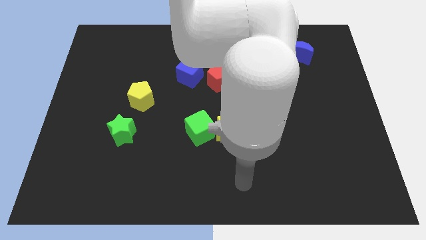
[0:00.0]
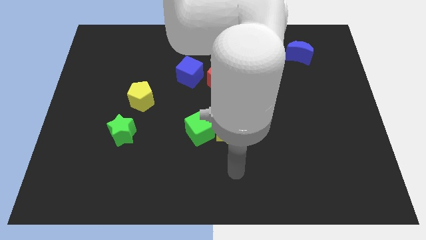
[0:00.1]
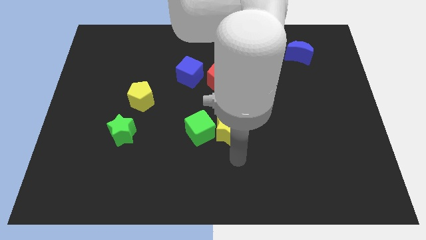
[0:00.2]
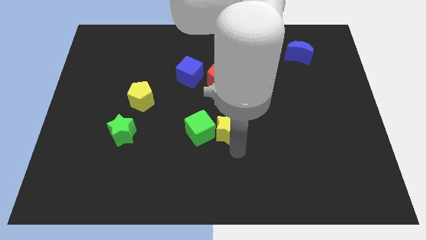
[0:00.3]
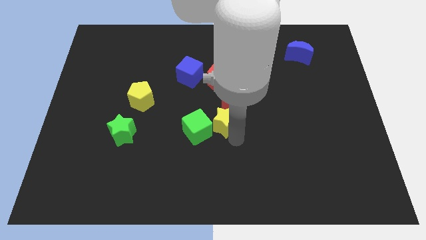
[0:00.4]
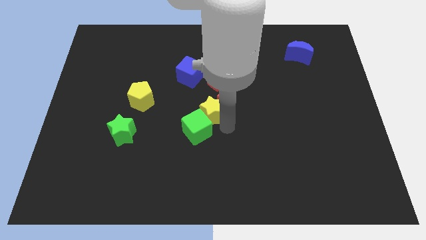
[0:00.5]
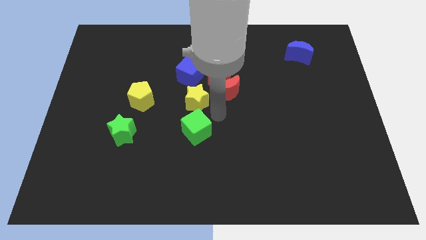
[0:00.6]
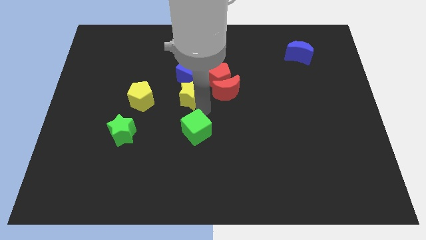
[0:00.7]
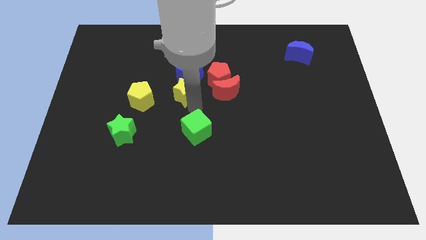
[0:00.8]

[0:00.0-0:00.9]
pull the green cube apart from the yellow star

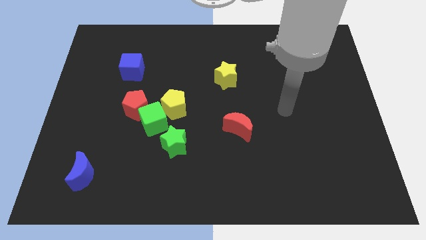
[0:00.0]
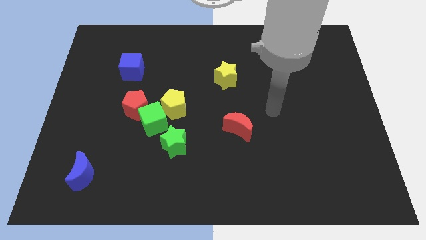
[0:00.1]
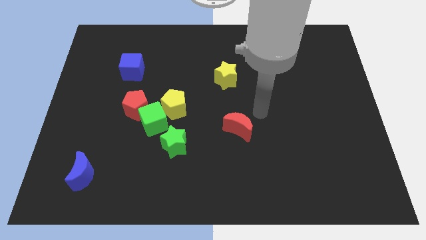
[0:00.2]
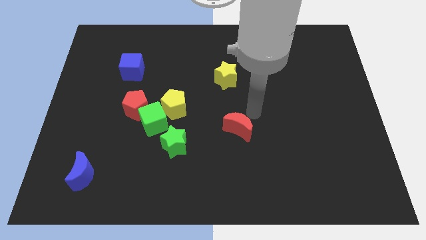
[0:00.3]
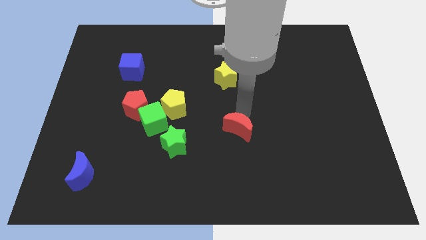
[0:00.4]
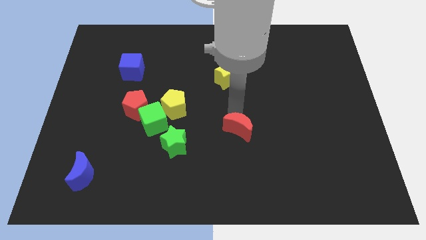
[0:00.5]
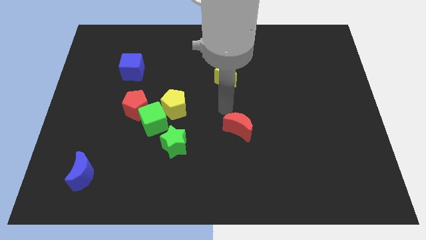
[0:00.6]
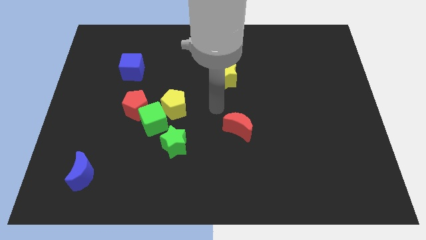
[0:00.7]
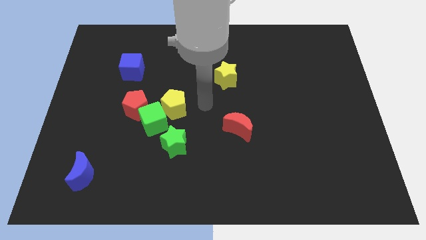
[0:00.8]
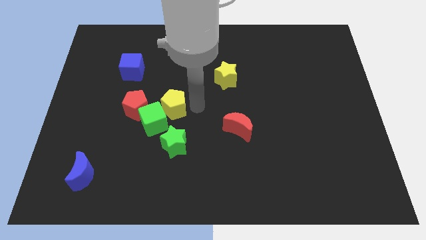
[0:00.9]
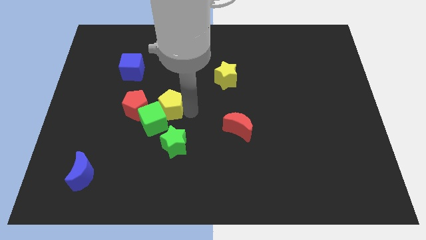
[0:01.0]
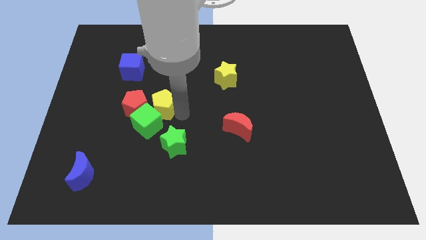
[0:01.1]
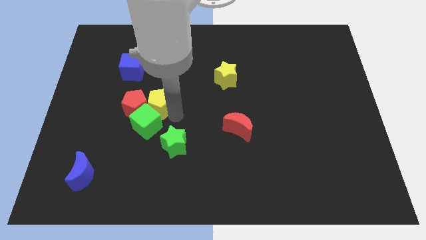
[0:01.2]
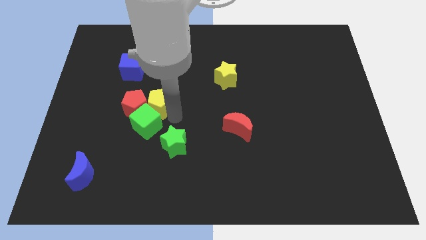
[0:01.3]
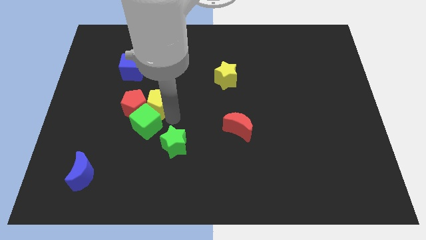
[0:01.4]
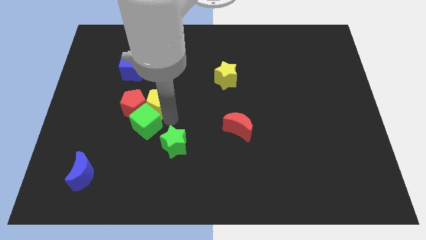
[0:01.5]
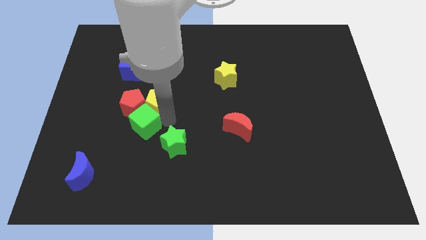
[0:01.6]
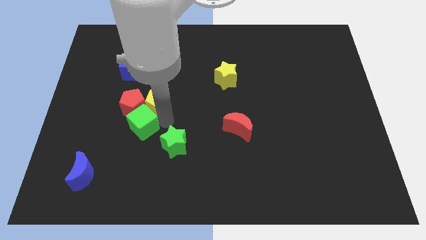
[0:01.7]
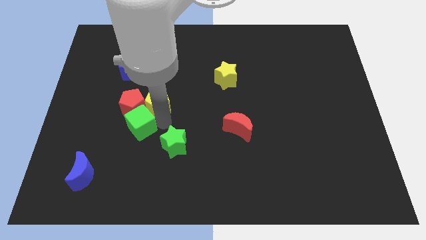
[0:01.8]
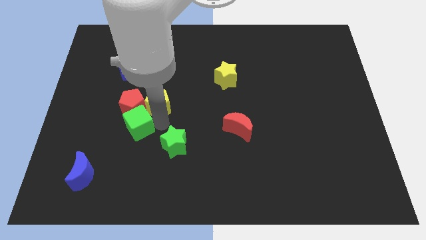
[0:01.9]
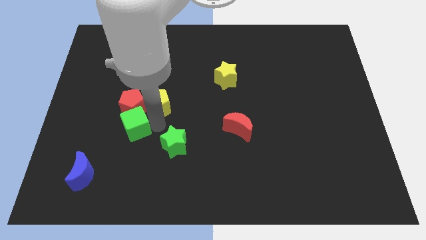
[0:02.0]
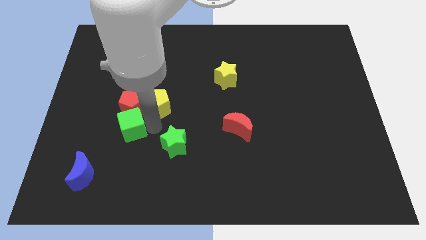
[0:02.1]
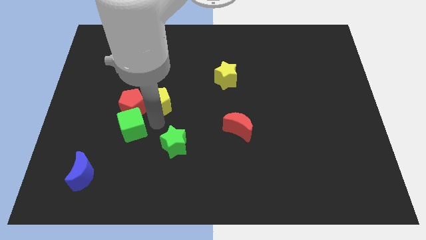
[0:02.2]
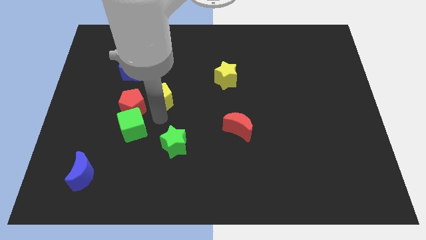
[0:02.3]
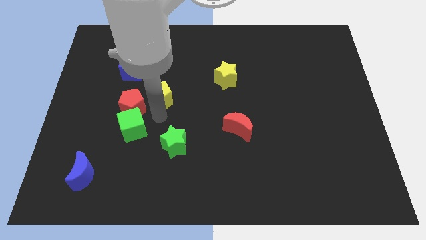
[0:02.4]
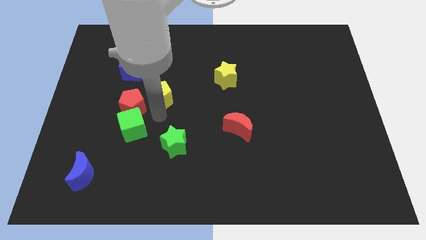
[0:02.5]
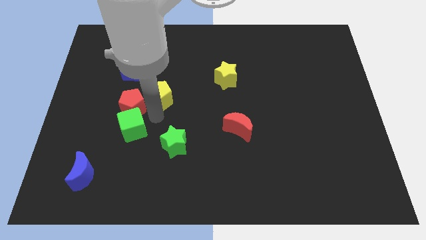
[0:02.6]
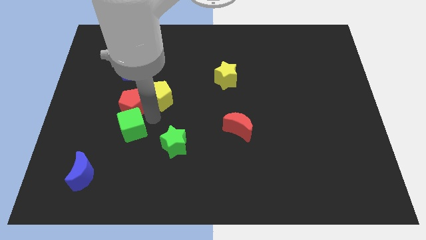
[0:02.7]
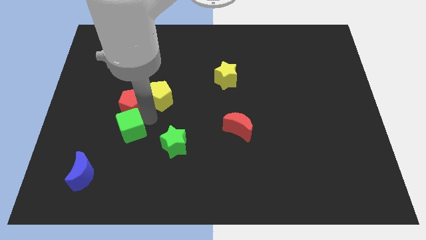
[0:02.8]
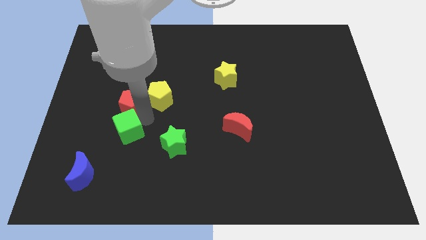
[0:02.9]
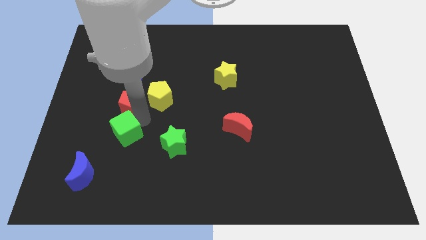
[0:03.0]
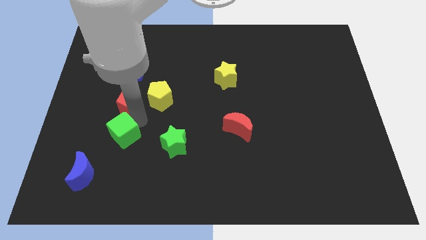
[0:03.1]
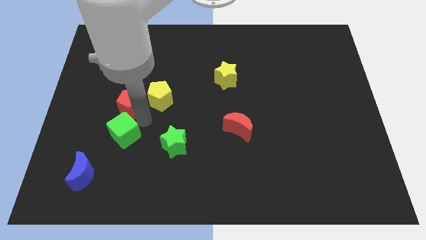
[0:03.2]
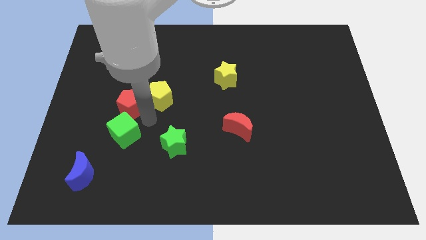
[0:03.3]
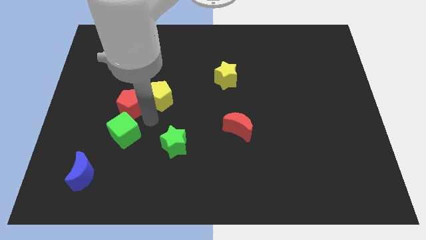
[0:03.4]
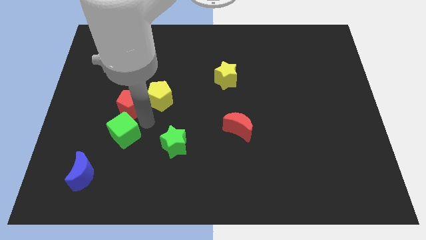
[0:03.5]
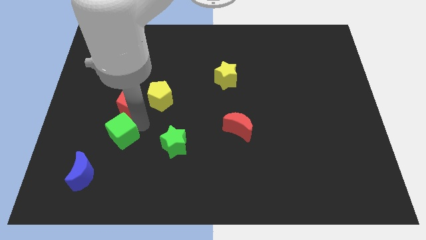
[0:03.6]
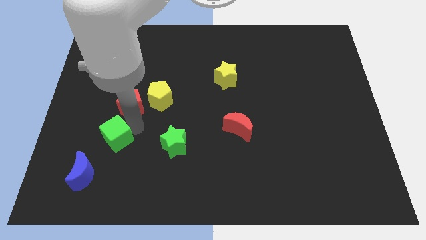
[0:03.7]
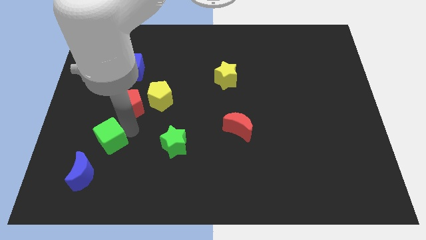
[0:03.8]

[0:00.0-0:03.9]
separate the green cube from the red pentagon, yellow pentagon, and green star

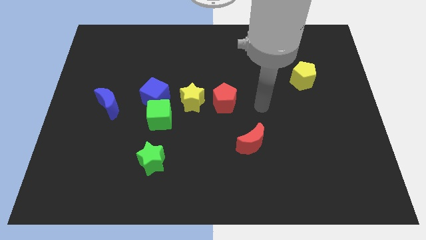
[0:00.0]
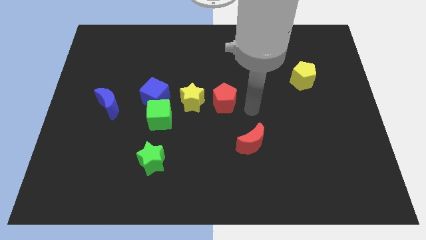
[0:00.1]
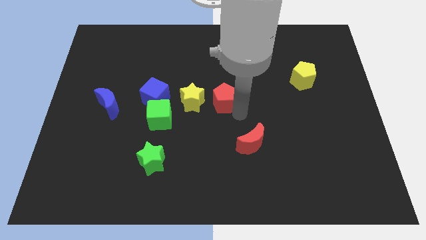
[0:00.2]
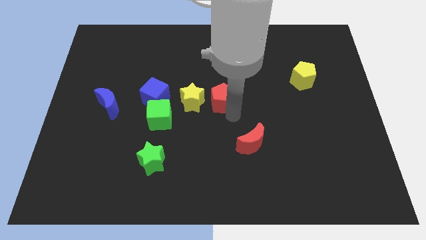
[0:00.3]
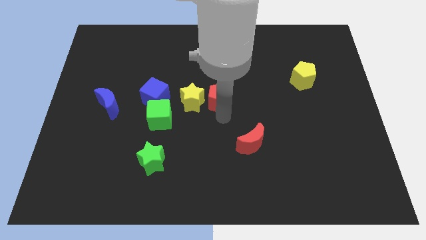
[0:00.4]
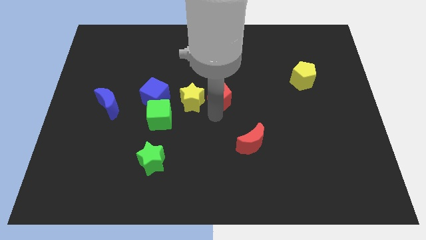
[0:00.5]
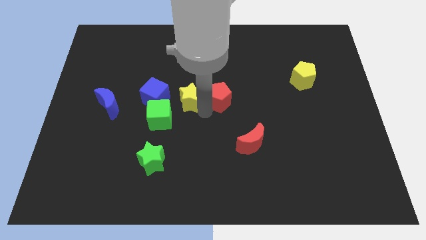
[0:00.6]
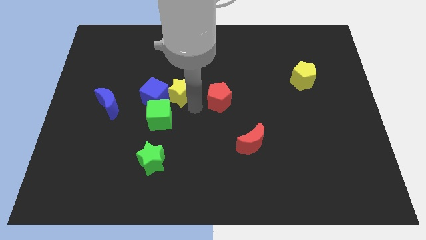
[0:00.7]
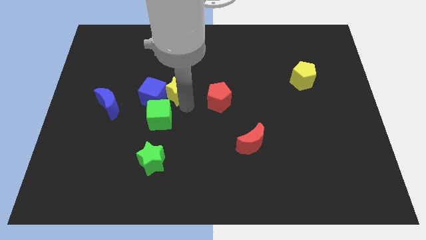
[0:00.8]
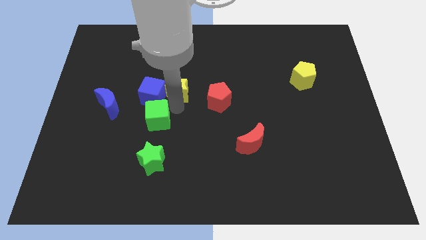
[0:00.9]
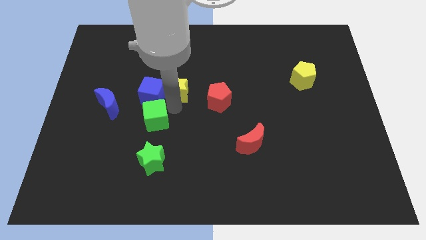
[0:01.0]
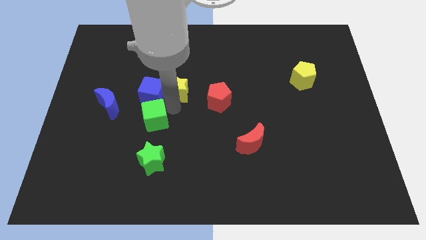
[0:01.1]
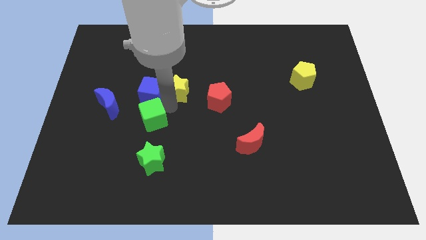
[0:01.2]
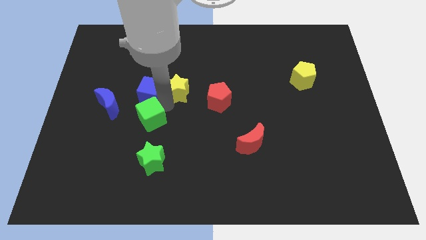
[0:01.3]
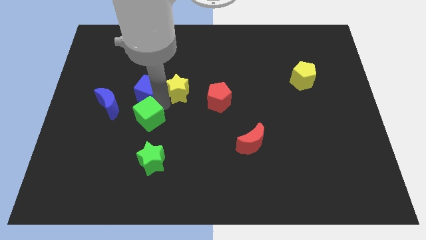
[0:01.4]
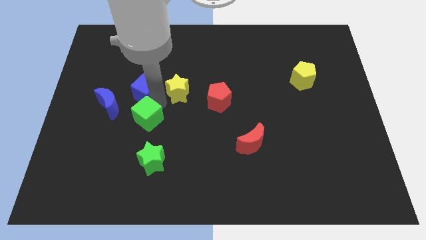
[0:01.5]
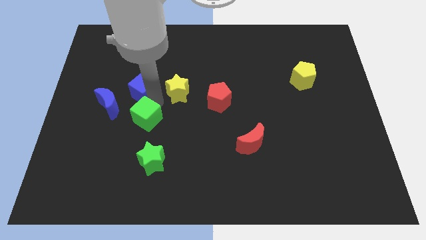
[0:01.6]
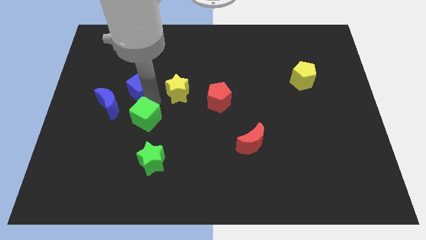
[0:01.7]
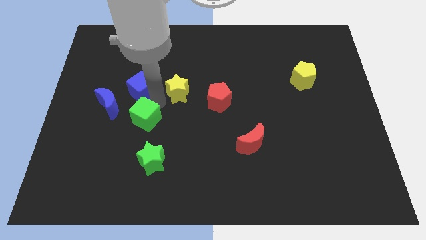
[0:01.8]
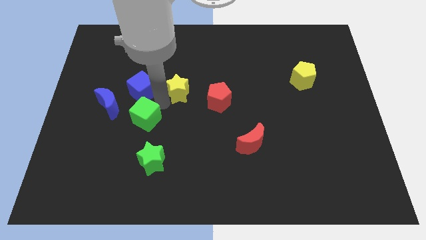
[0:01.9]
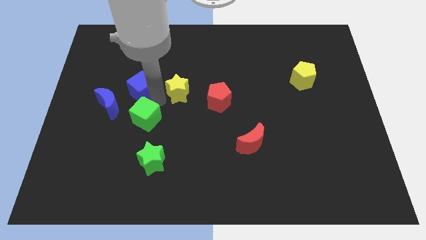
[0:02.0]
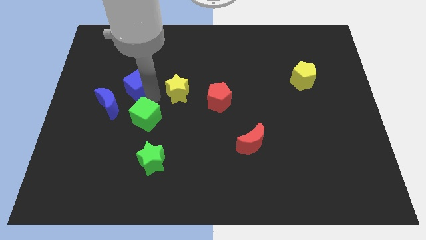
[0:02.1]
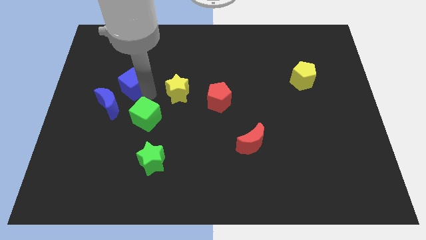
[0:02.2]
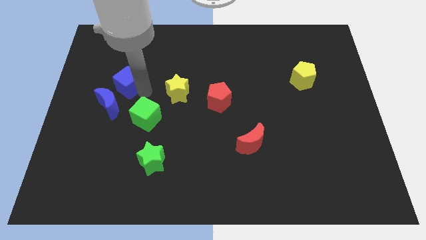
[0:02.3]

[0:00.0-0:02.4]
pull the blue cube apart from the green cube and yellow star

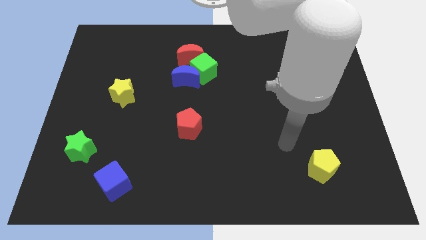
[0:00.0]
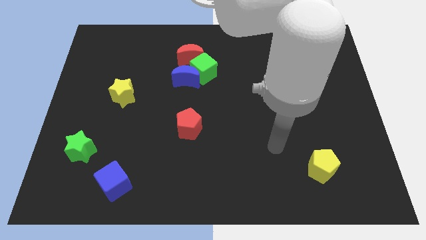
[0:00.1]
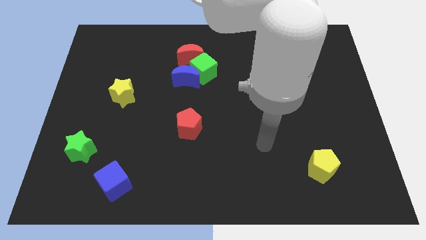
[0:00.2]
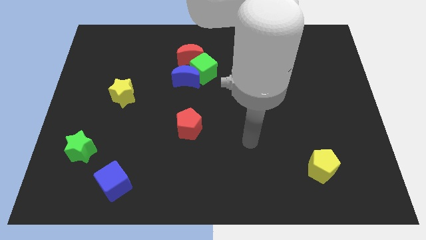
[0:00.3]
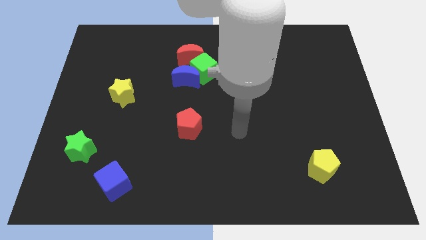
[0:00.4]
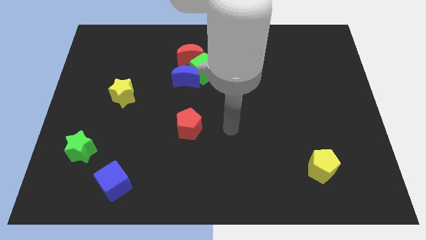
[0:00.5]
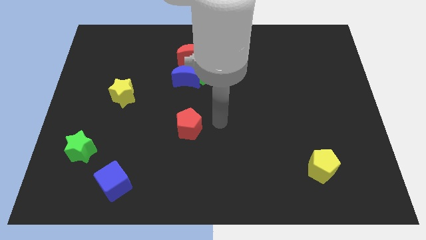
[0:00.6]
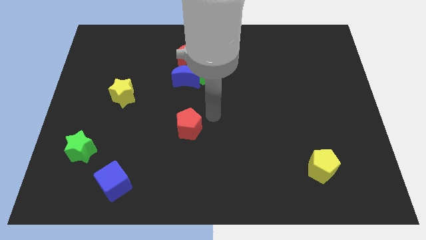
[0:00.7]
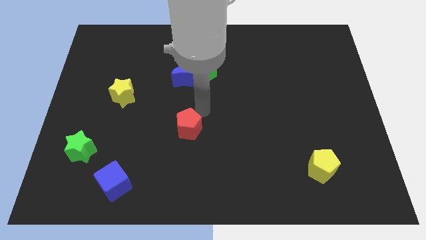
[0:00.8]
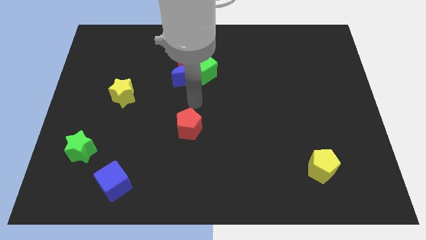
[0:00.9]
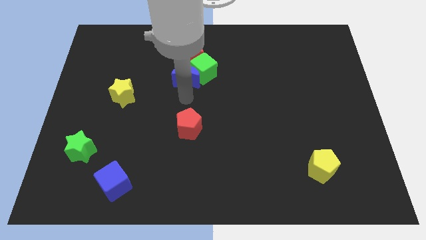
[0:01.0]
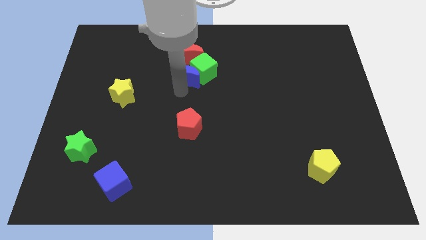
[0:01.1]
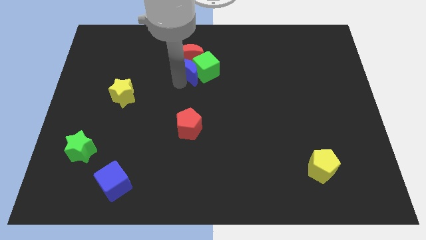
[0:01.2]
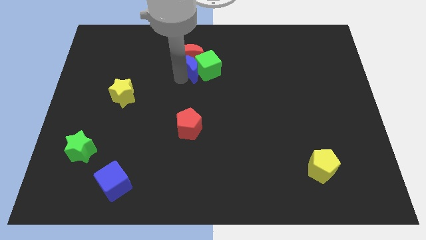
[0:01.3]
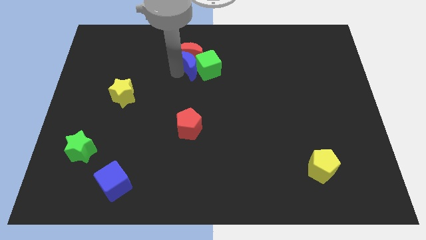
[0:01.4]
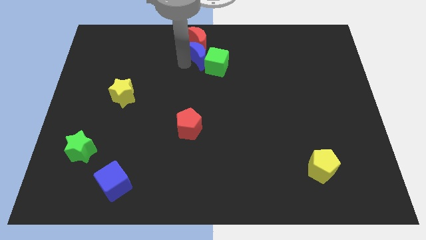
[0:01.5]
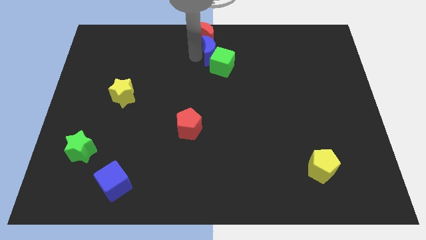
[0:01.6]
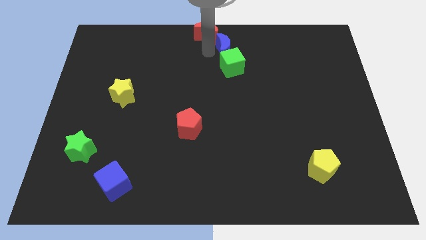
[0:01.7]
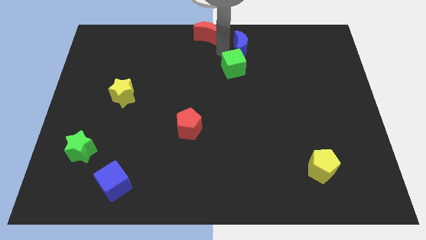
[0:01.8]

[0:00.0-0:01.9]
move the green cube away from the blue moon and red moon

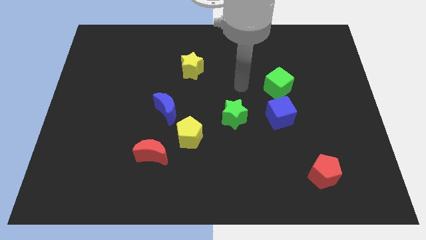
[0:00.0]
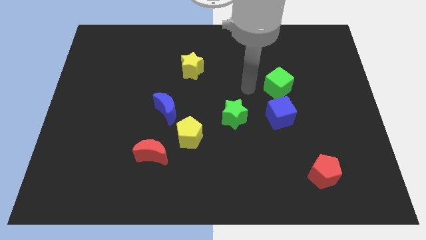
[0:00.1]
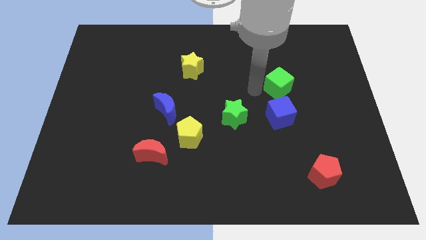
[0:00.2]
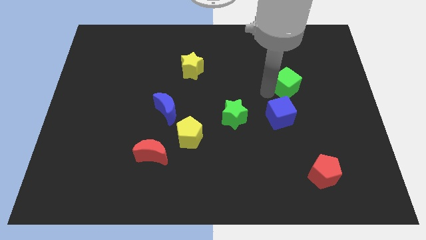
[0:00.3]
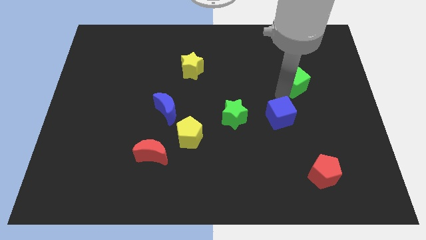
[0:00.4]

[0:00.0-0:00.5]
pull the blue cube apart from the green cube
